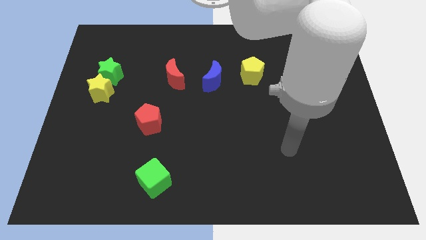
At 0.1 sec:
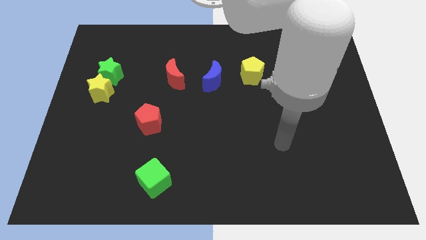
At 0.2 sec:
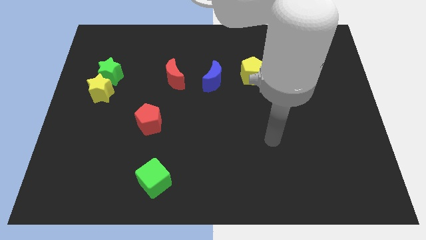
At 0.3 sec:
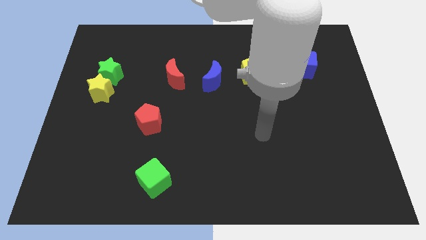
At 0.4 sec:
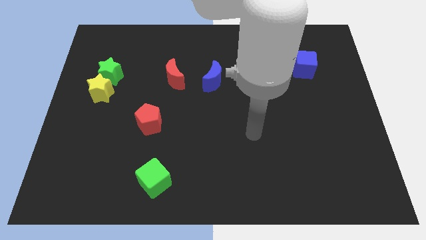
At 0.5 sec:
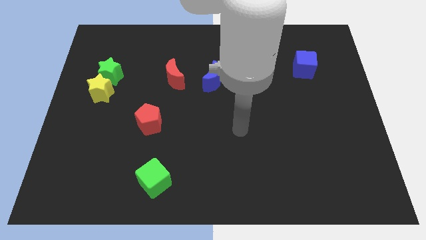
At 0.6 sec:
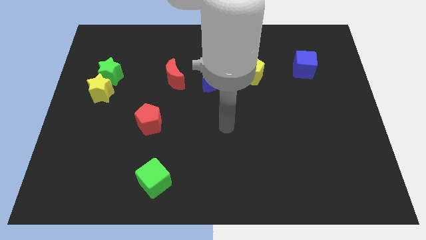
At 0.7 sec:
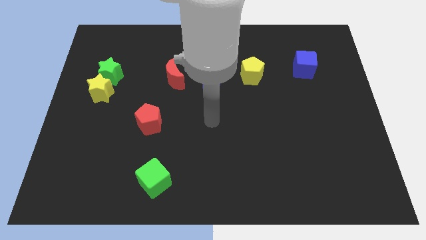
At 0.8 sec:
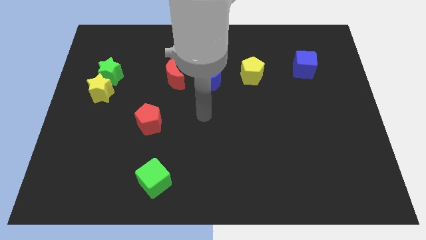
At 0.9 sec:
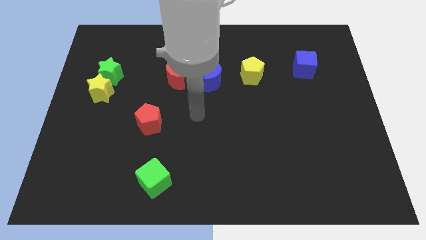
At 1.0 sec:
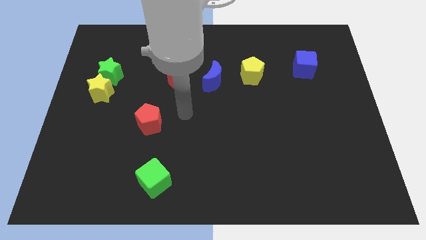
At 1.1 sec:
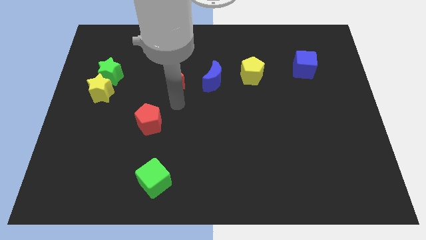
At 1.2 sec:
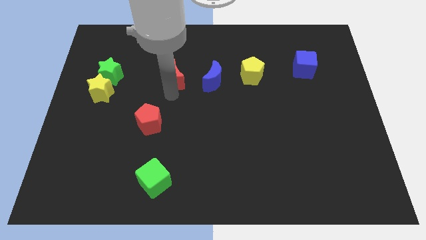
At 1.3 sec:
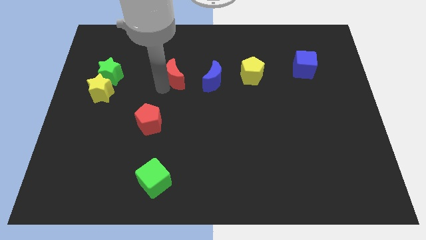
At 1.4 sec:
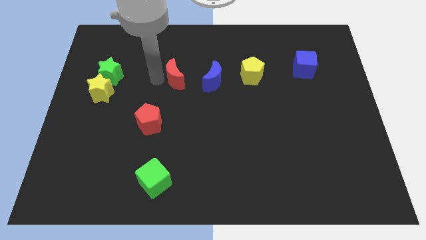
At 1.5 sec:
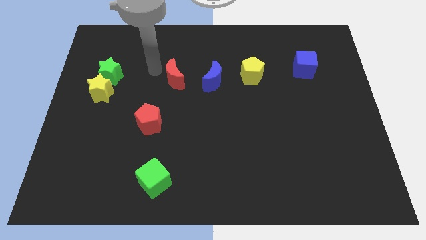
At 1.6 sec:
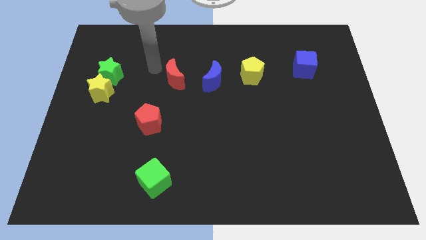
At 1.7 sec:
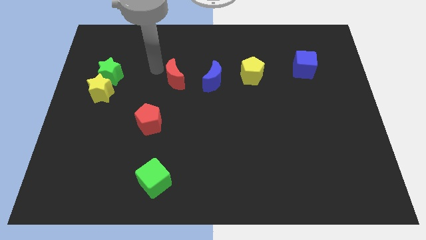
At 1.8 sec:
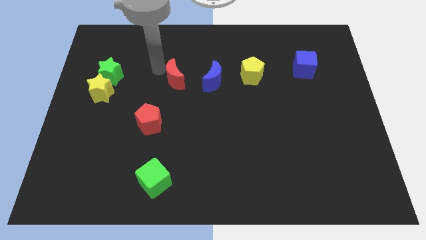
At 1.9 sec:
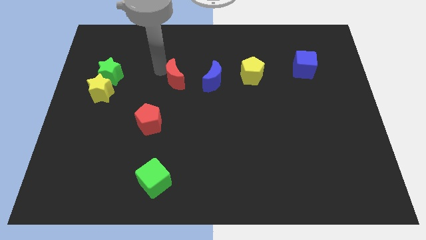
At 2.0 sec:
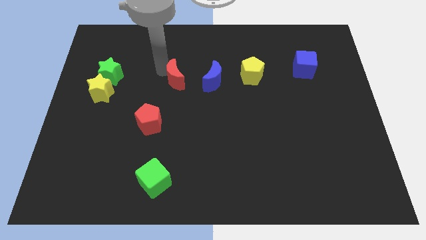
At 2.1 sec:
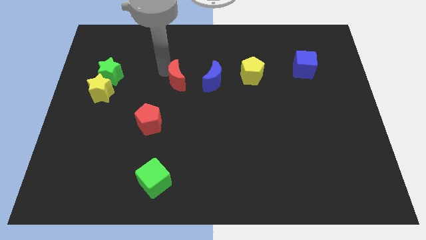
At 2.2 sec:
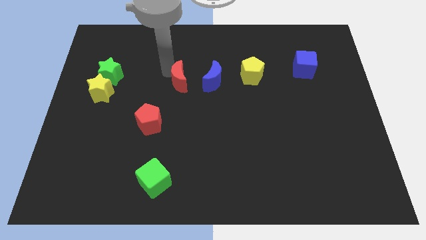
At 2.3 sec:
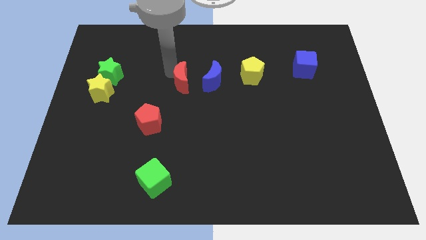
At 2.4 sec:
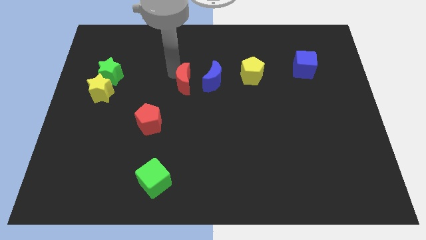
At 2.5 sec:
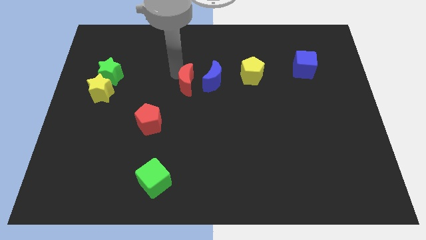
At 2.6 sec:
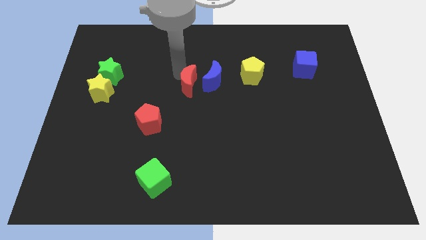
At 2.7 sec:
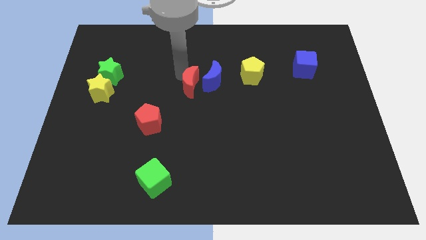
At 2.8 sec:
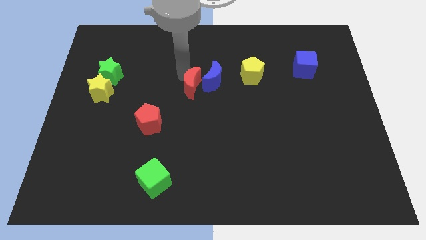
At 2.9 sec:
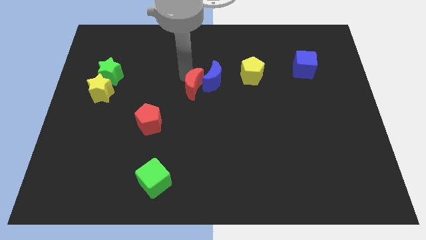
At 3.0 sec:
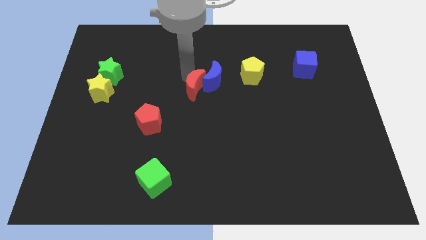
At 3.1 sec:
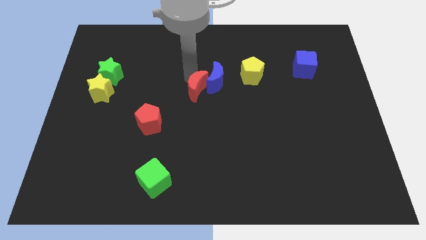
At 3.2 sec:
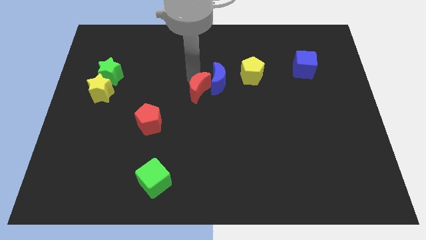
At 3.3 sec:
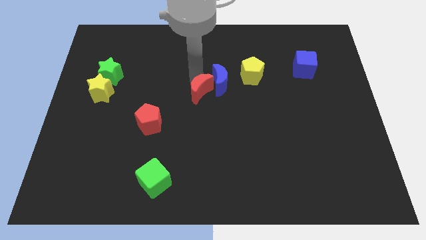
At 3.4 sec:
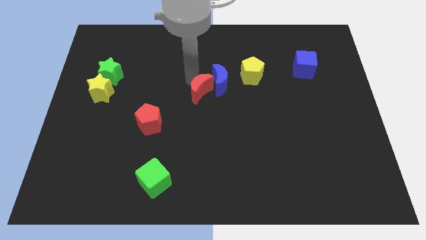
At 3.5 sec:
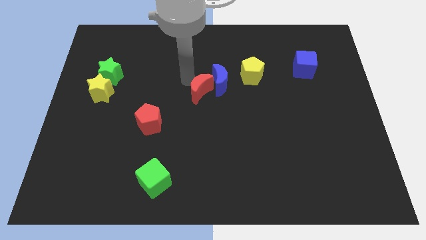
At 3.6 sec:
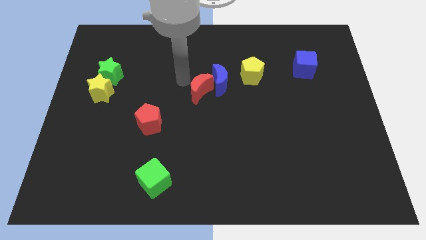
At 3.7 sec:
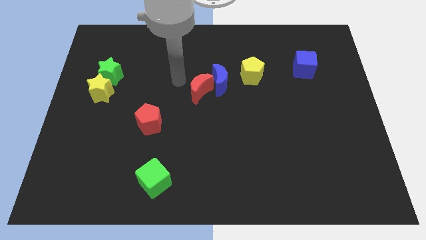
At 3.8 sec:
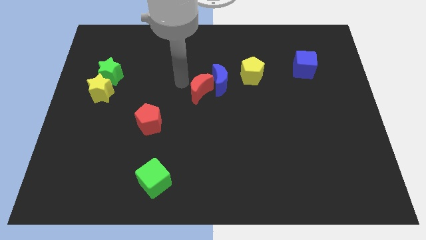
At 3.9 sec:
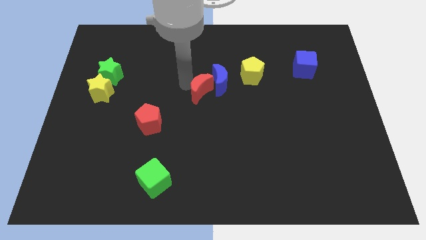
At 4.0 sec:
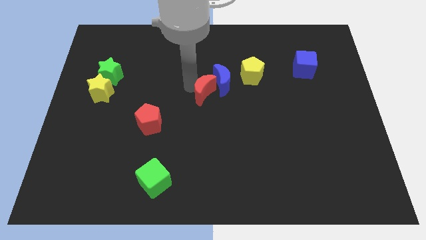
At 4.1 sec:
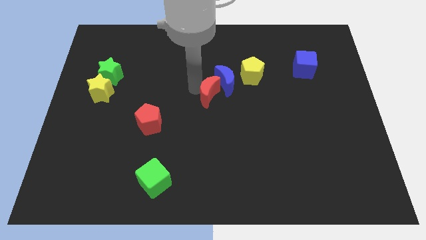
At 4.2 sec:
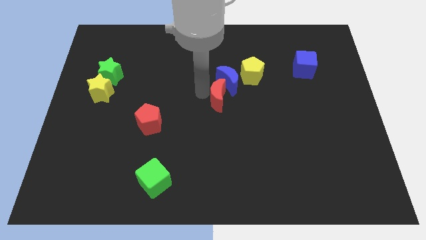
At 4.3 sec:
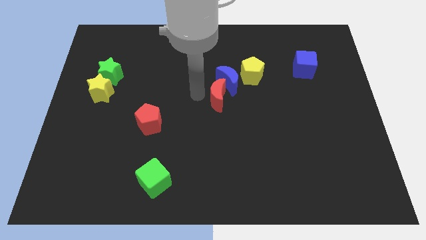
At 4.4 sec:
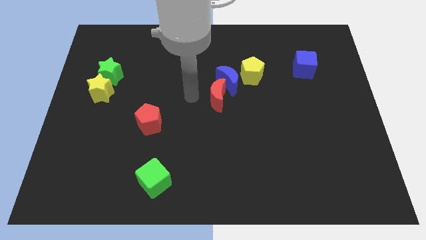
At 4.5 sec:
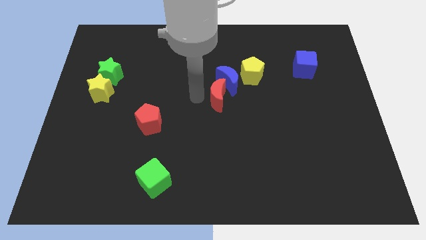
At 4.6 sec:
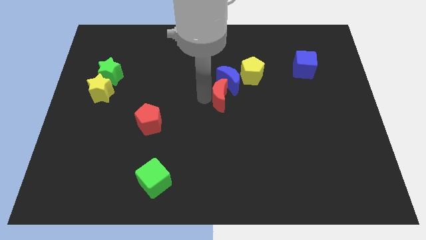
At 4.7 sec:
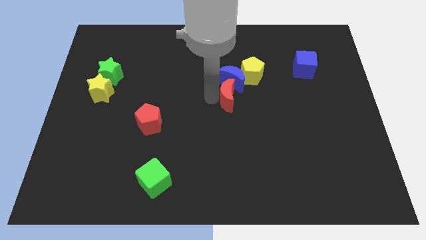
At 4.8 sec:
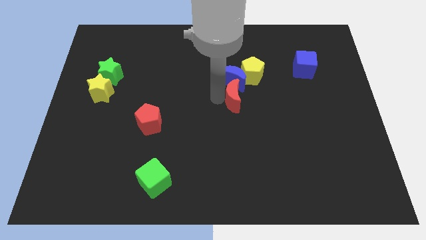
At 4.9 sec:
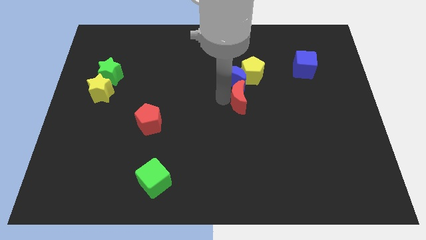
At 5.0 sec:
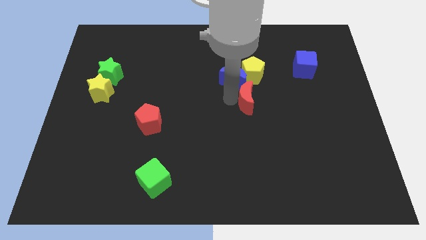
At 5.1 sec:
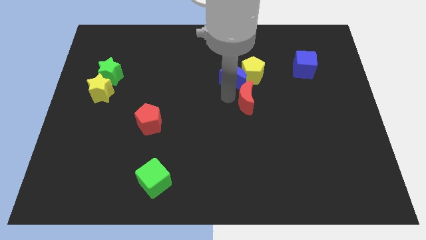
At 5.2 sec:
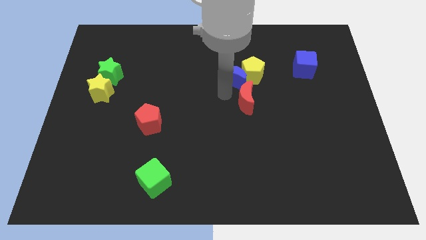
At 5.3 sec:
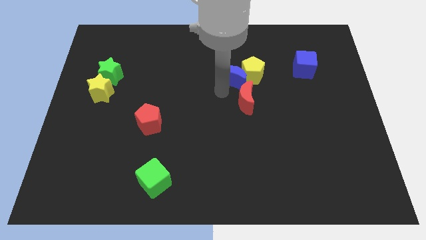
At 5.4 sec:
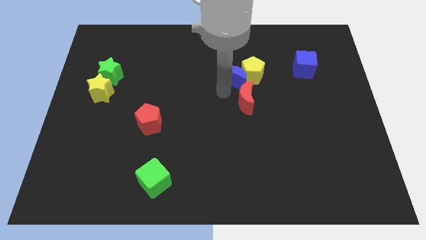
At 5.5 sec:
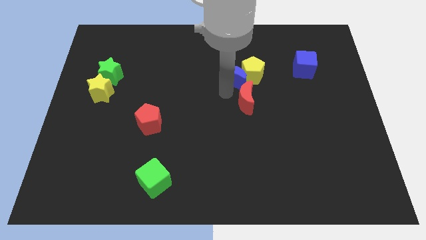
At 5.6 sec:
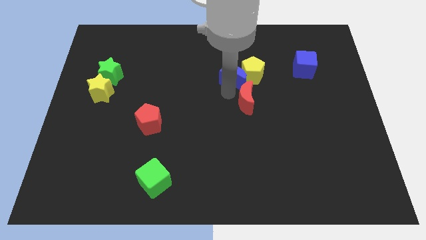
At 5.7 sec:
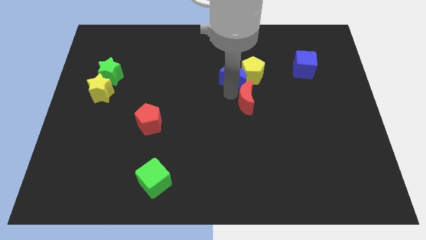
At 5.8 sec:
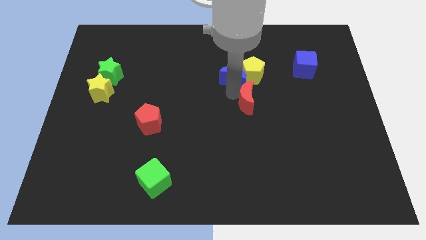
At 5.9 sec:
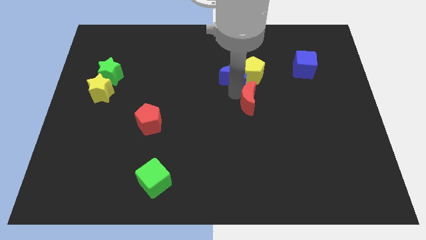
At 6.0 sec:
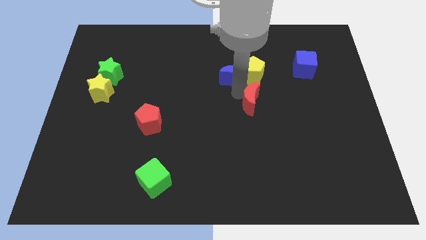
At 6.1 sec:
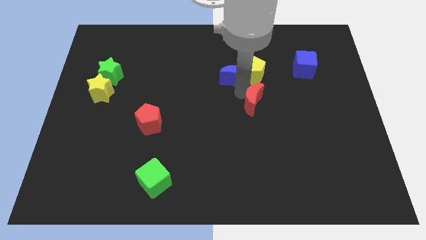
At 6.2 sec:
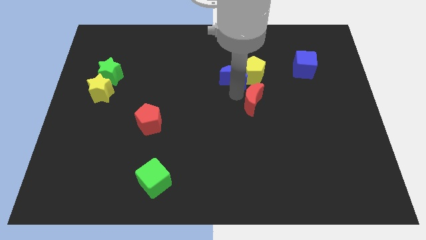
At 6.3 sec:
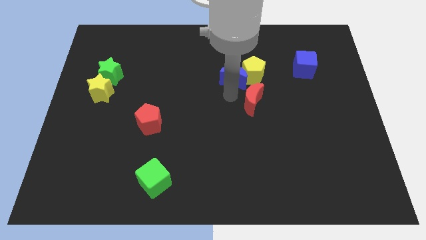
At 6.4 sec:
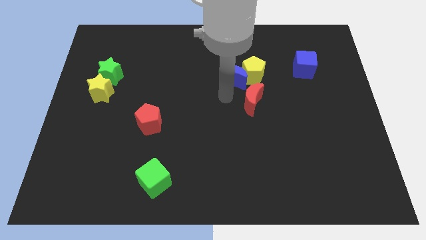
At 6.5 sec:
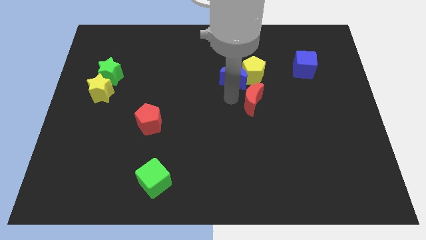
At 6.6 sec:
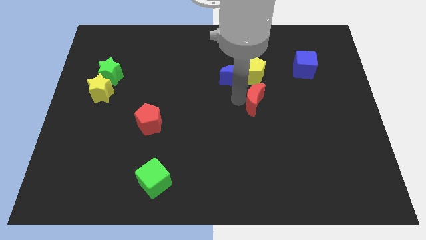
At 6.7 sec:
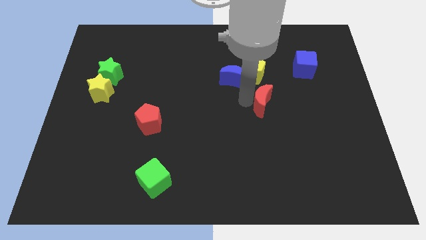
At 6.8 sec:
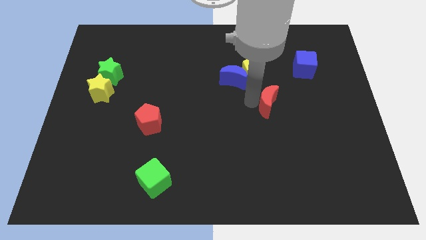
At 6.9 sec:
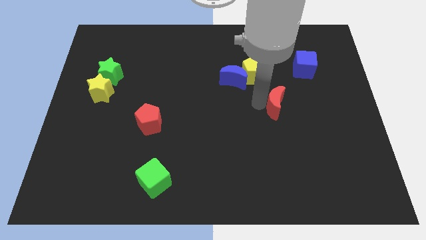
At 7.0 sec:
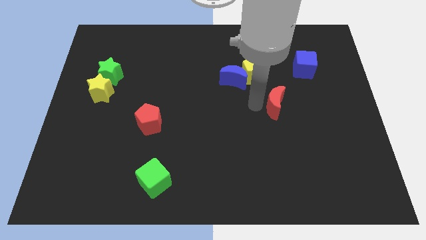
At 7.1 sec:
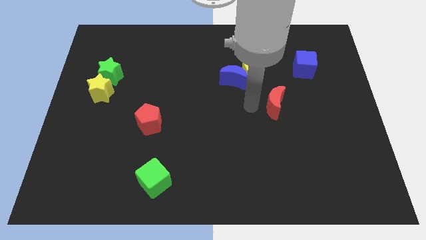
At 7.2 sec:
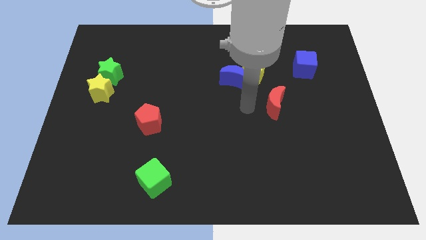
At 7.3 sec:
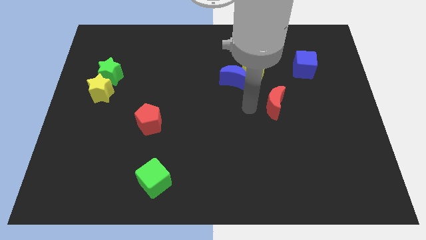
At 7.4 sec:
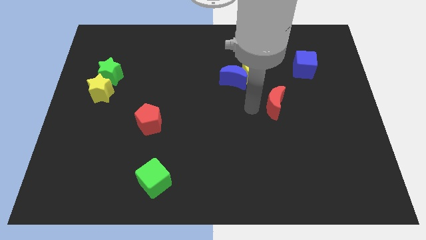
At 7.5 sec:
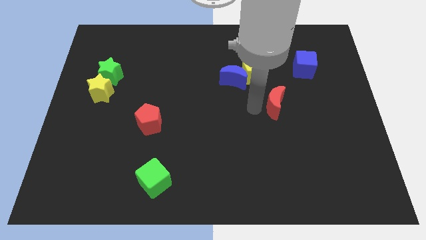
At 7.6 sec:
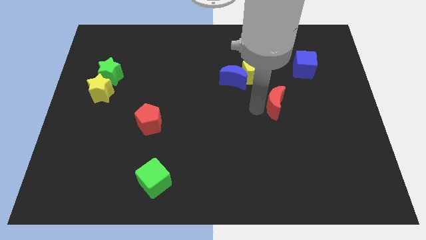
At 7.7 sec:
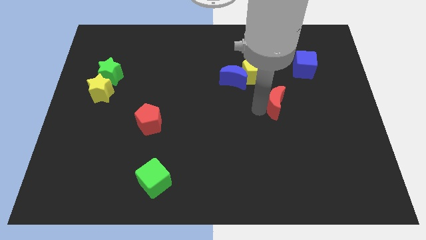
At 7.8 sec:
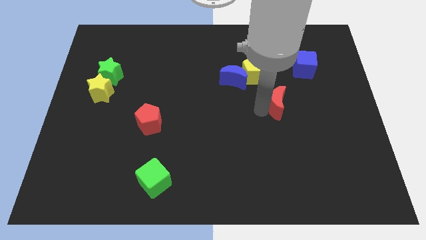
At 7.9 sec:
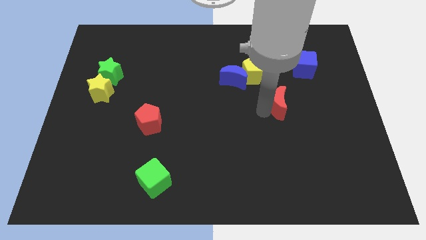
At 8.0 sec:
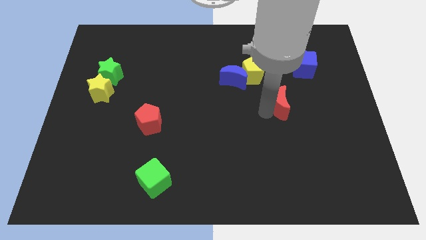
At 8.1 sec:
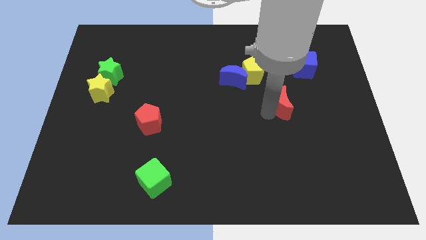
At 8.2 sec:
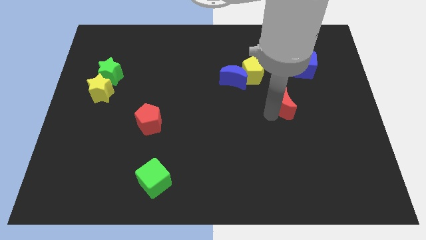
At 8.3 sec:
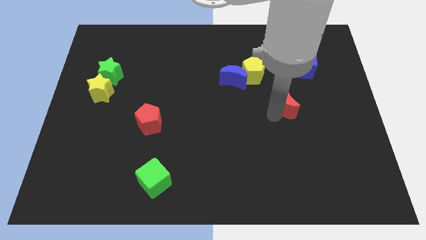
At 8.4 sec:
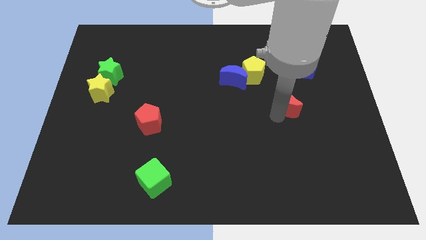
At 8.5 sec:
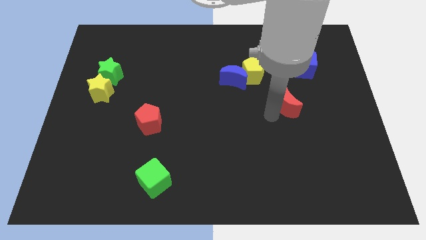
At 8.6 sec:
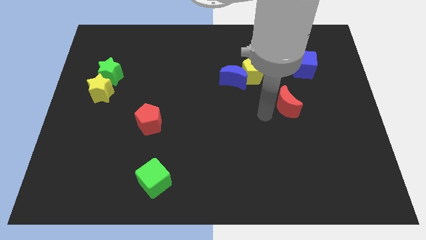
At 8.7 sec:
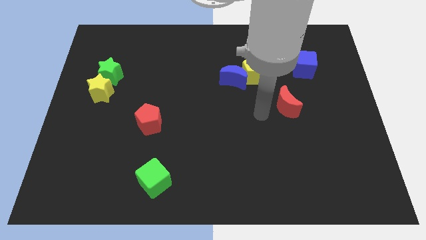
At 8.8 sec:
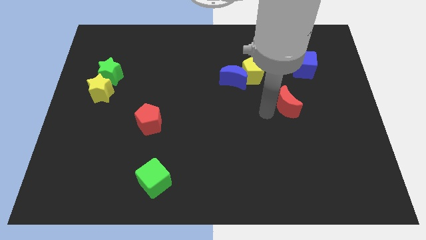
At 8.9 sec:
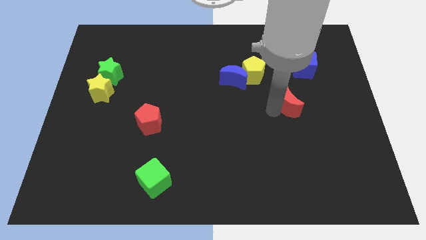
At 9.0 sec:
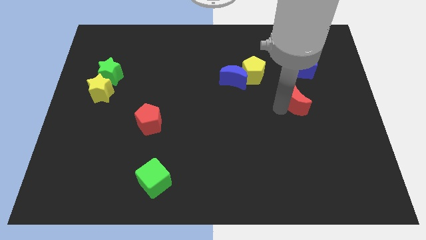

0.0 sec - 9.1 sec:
put the red moon below the blue cube
